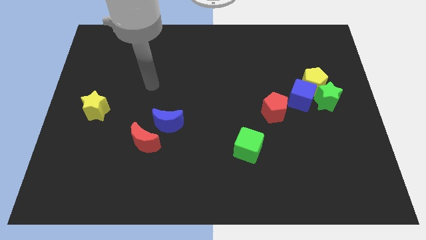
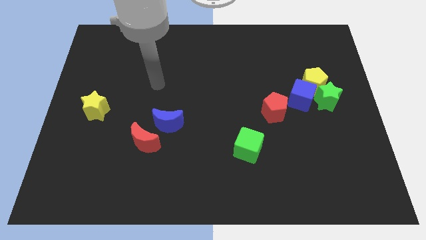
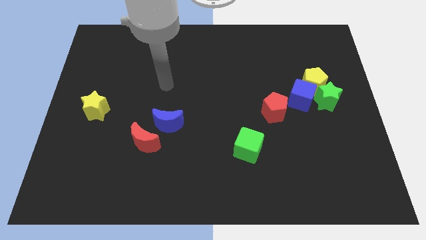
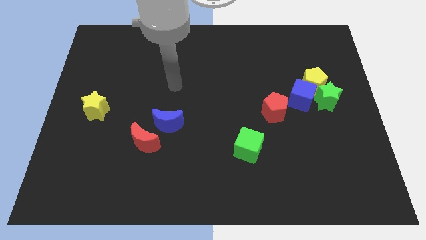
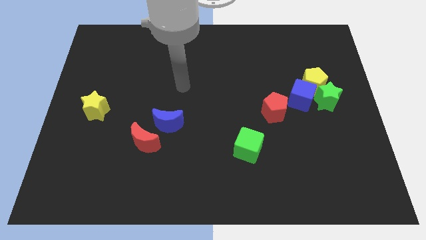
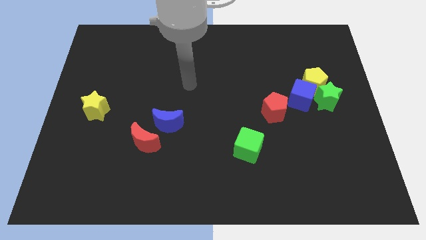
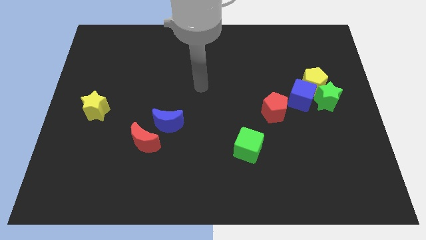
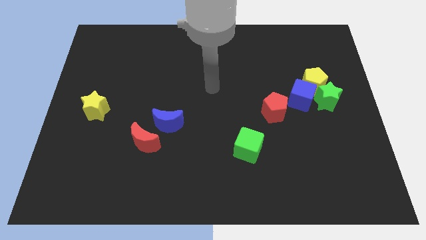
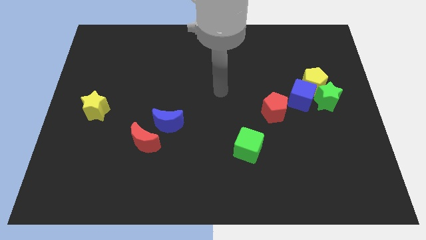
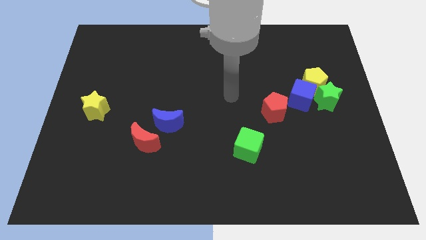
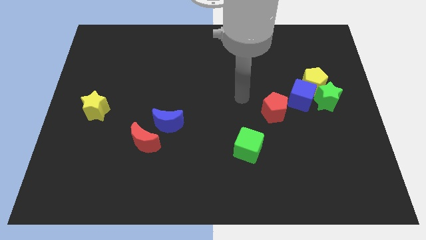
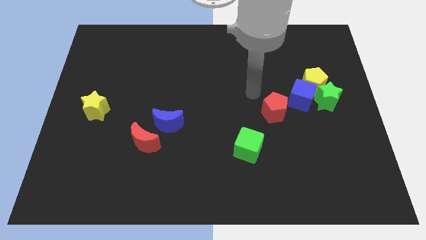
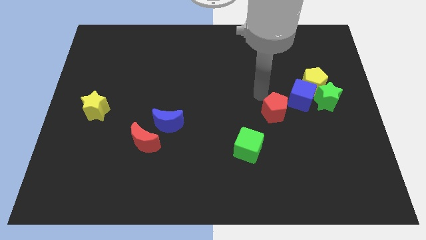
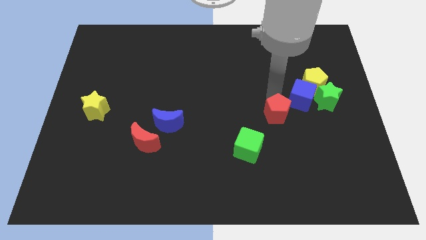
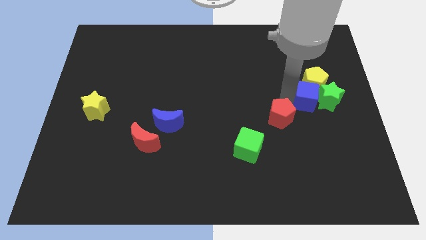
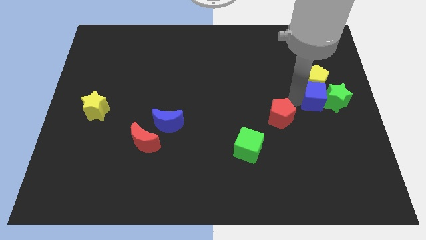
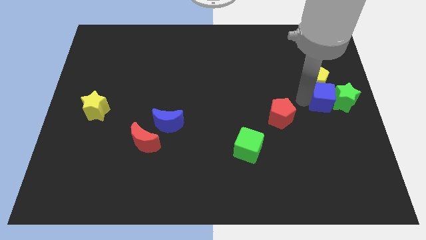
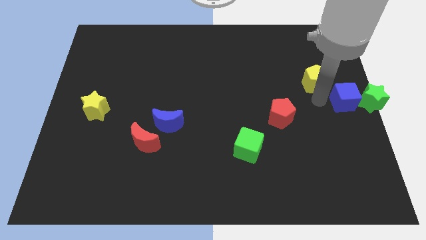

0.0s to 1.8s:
move the yellow pentagon away from the blue cube and green star

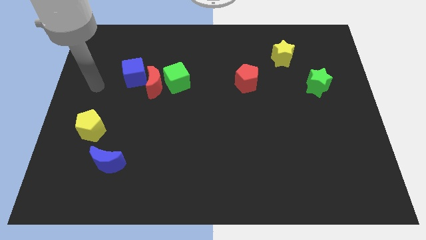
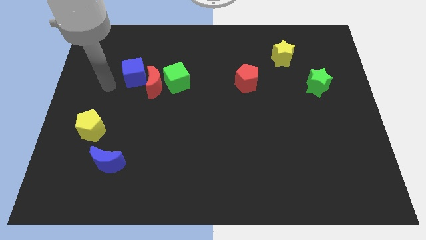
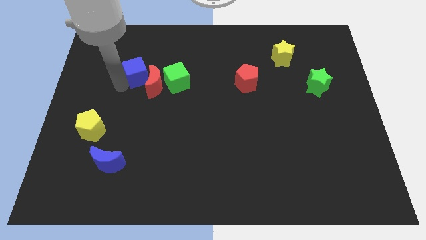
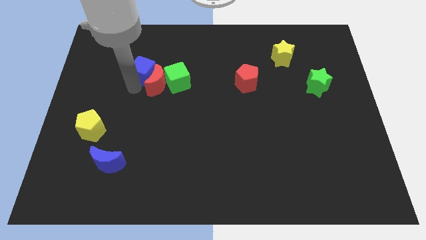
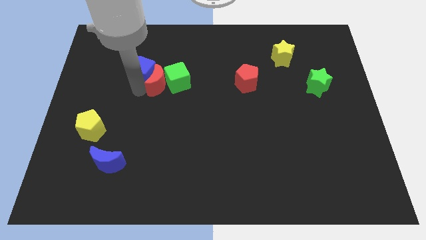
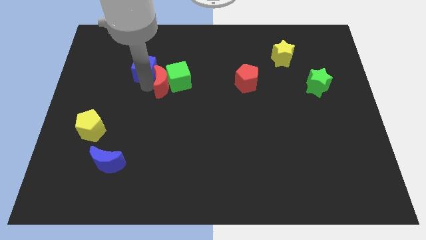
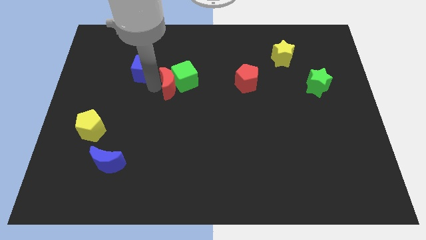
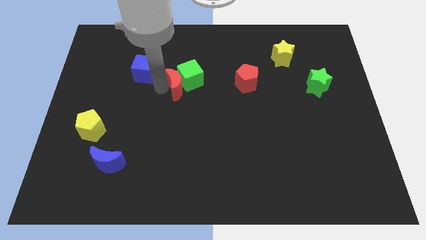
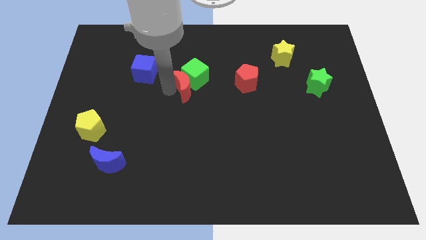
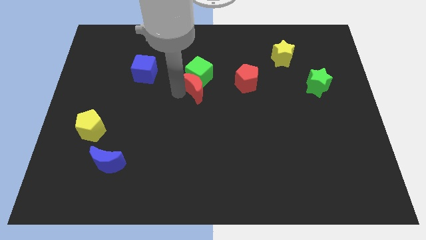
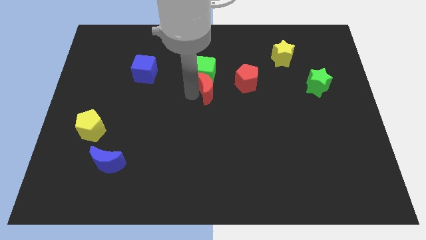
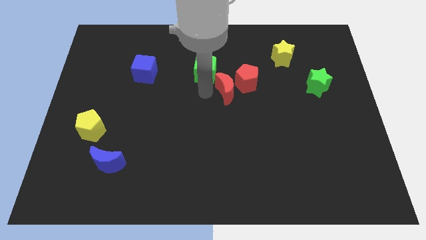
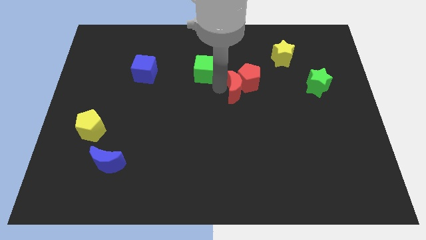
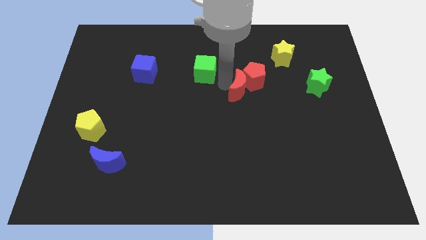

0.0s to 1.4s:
move the green cube away from the red moon

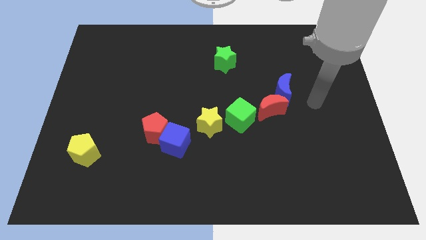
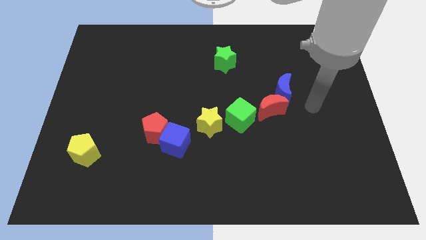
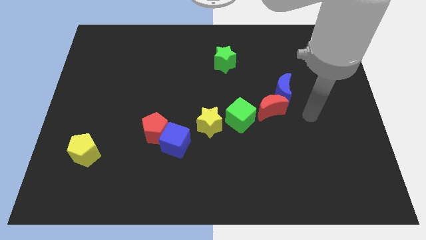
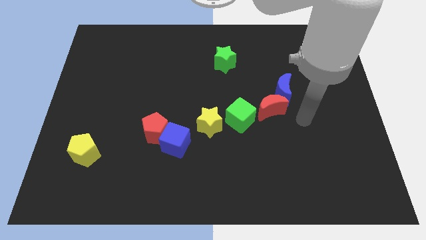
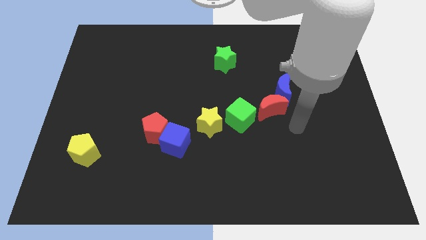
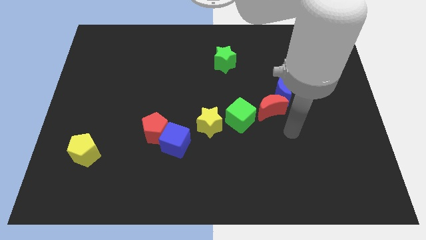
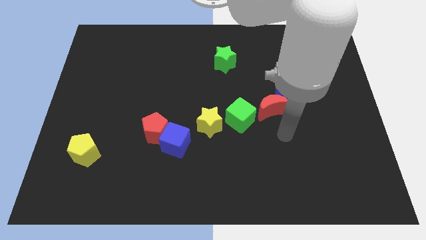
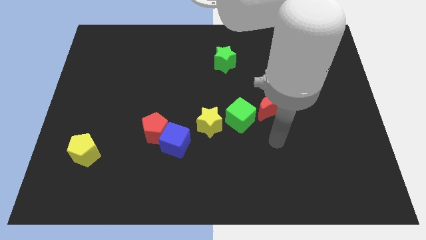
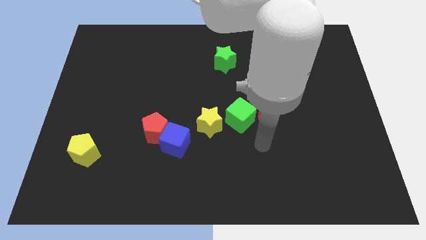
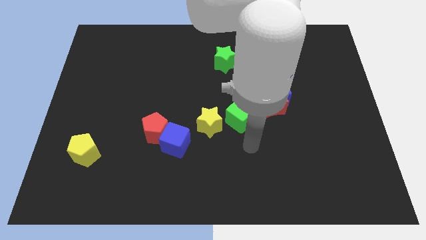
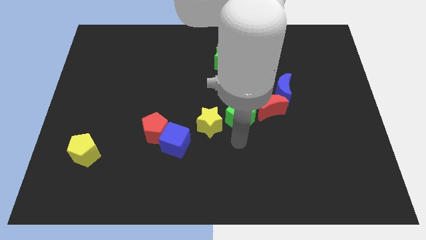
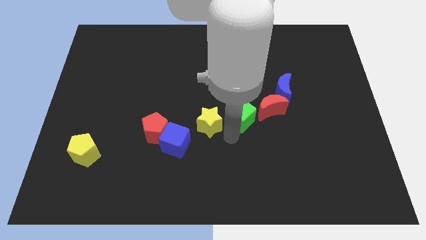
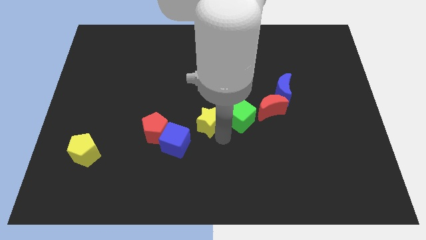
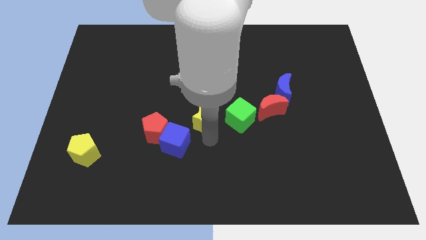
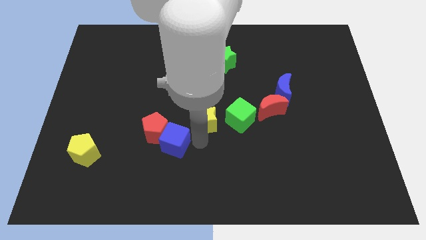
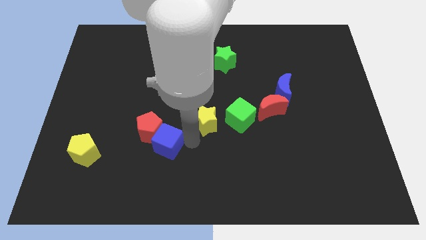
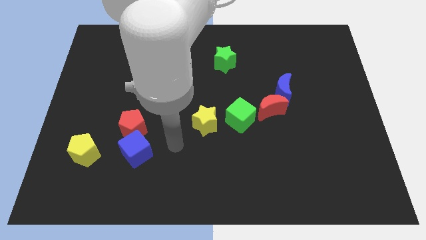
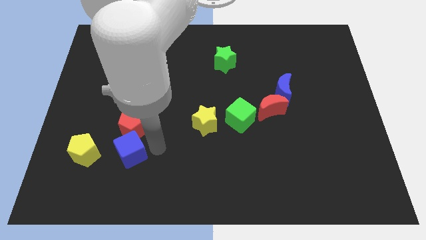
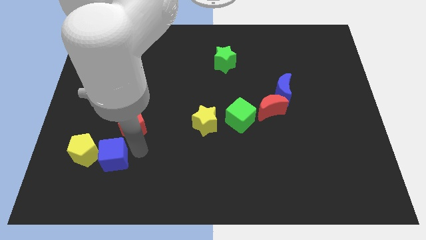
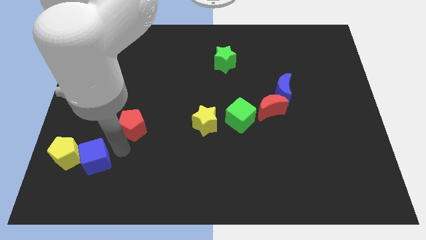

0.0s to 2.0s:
pull the red pentagon apart from the blue cube

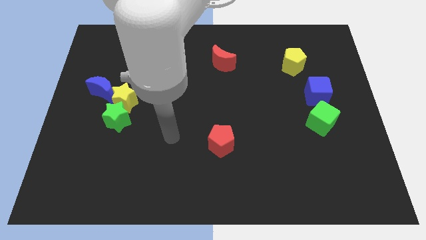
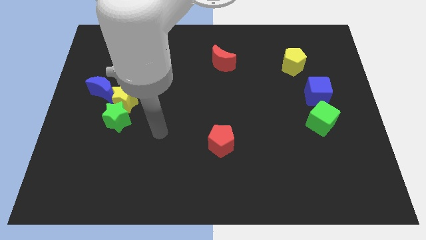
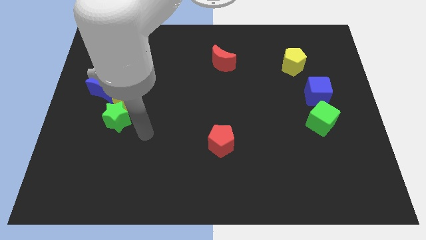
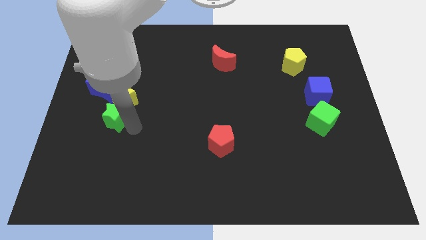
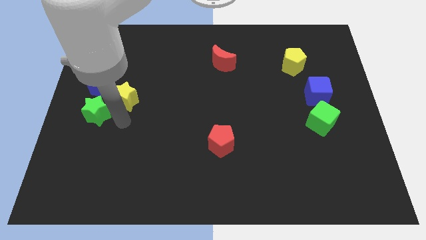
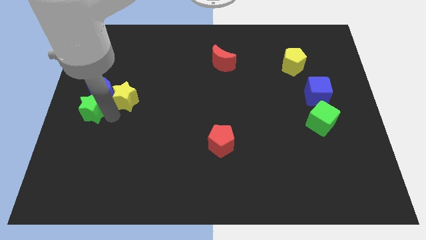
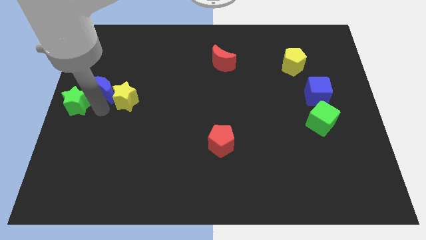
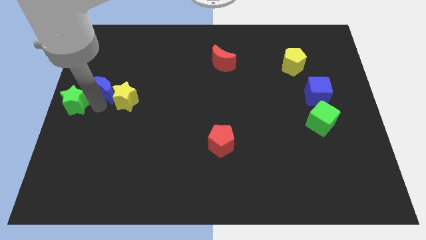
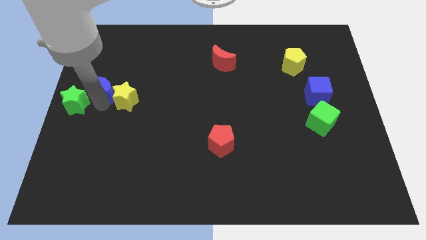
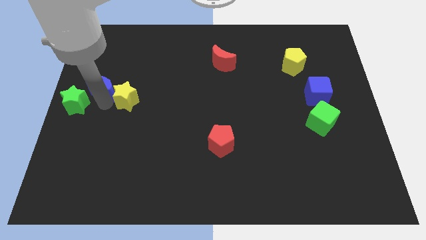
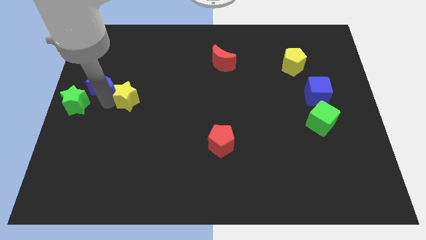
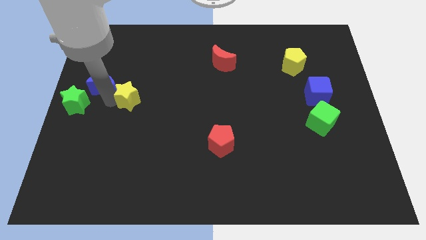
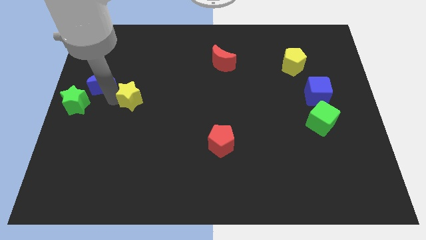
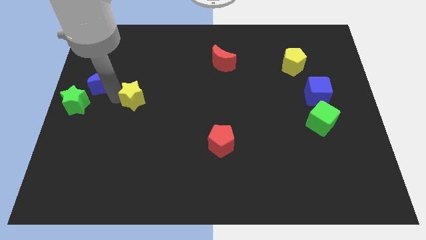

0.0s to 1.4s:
separate the yellow star from the green star and blue moon

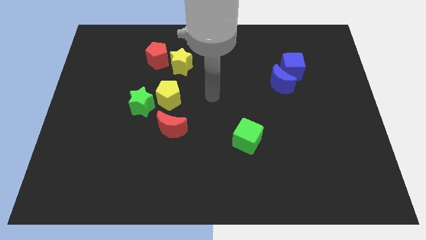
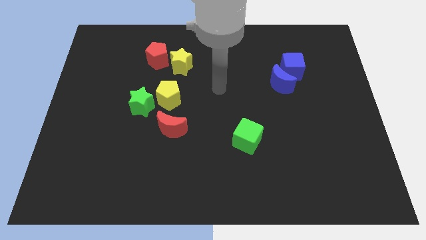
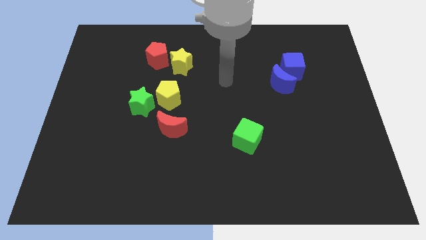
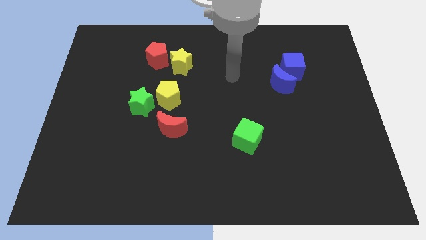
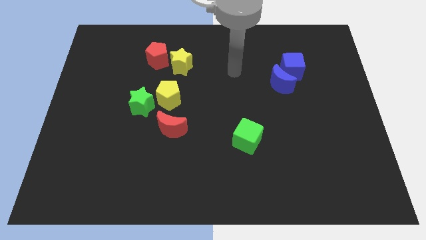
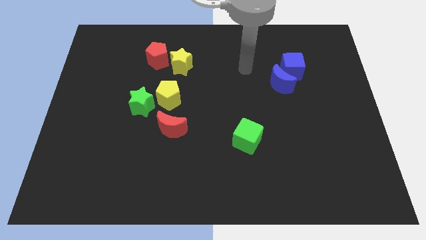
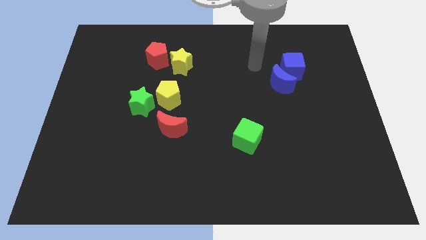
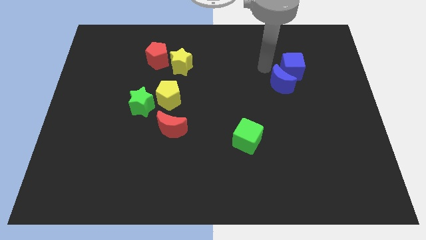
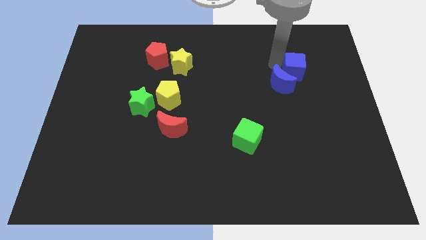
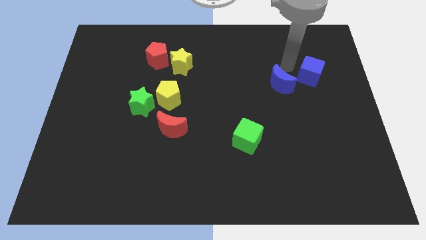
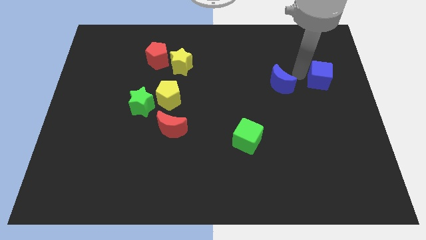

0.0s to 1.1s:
pull the blue moon apart from the blue cube

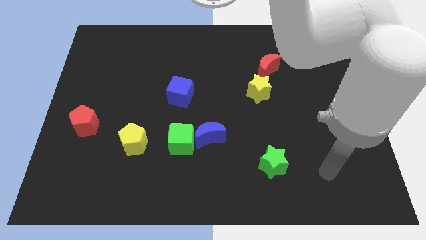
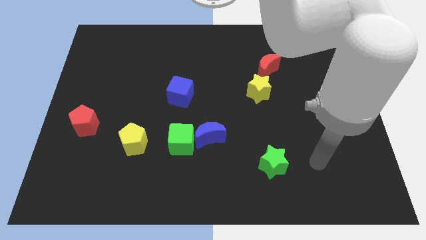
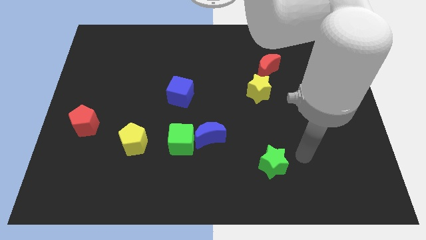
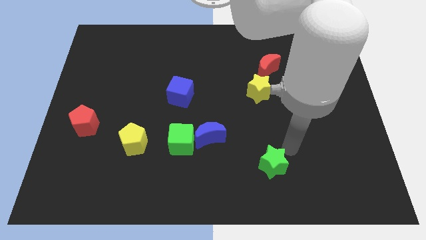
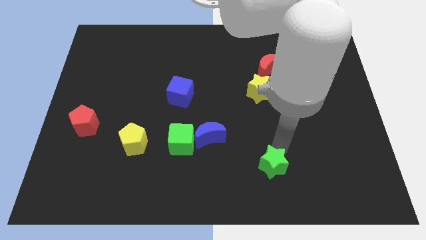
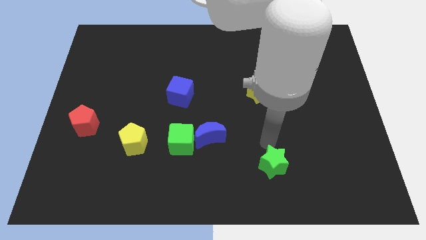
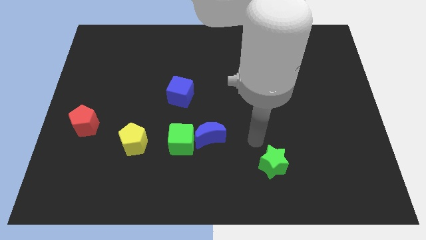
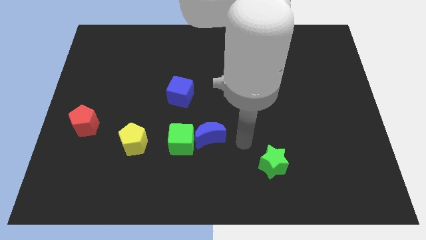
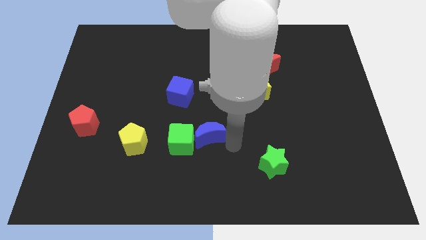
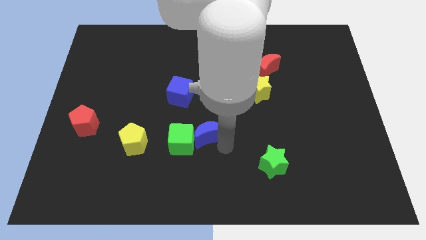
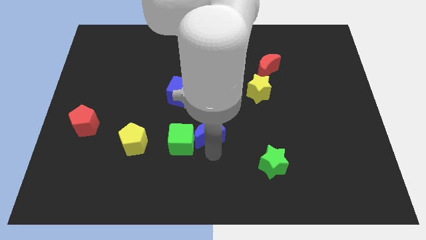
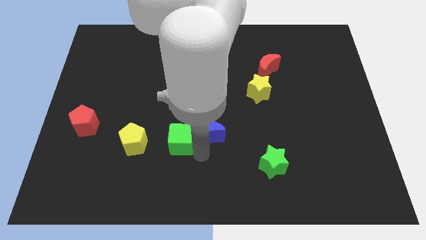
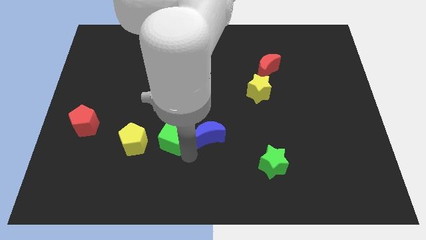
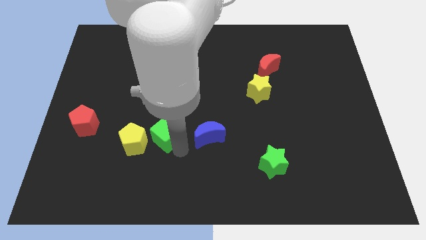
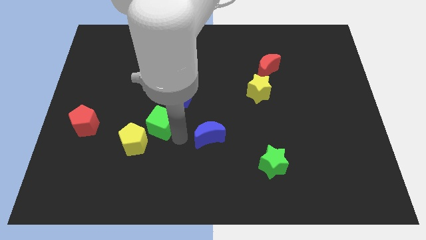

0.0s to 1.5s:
separate the blue moon from the green cube
